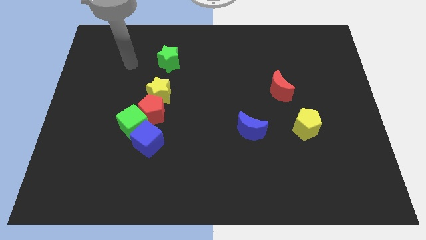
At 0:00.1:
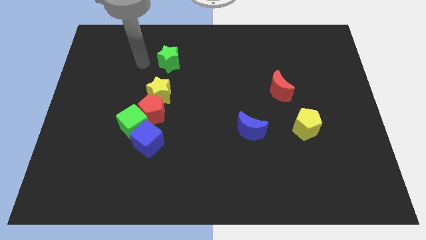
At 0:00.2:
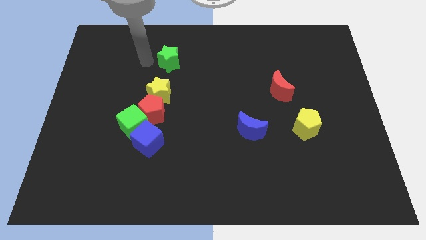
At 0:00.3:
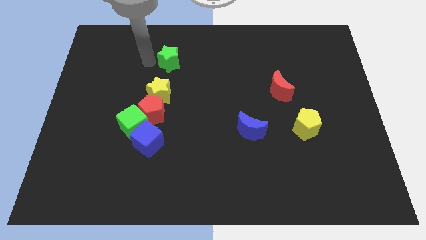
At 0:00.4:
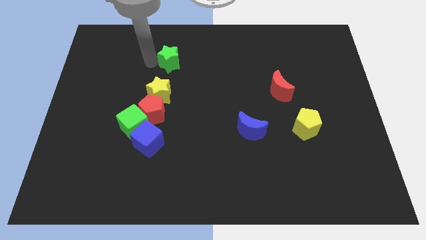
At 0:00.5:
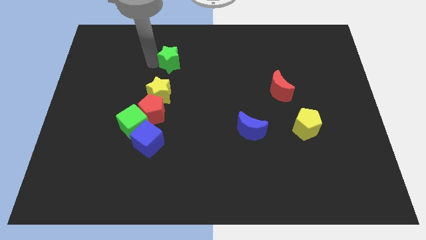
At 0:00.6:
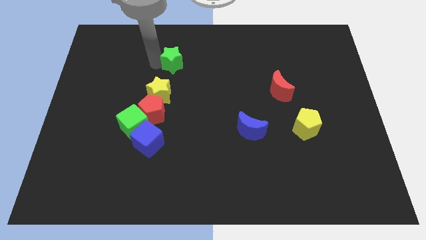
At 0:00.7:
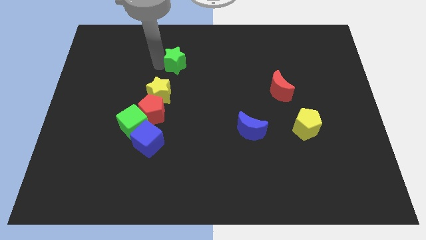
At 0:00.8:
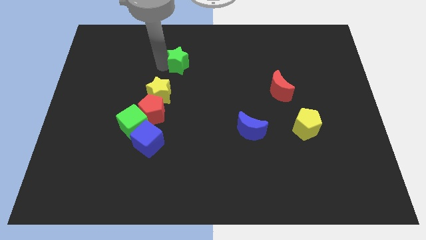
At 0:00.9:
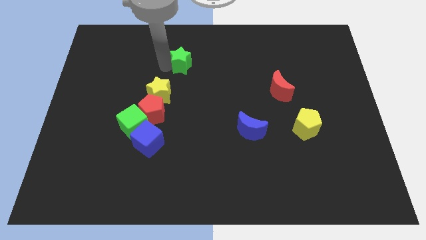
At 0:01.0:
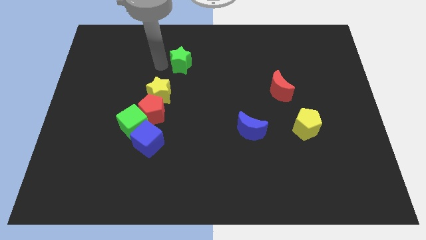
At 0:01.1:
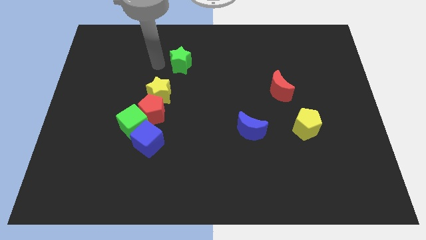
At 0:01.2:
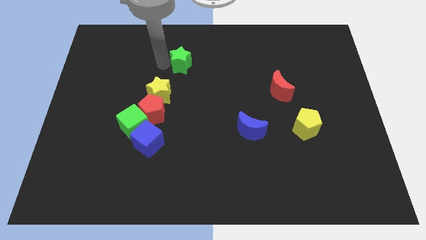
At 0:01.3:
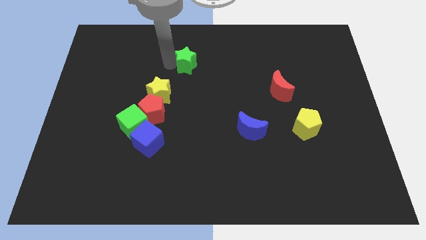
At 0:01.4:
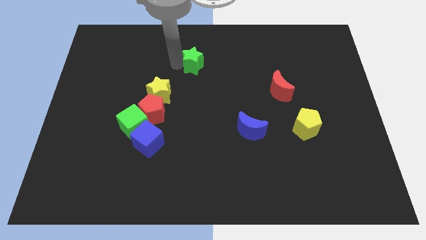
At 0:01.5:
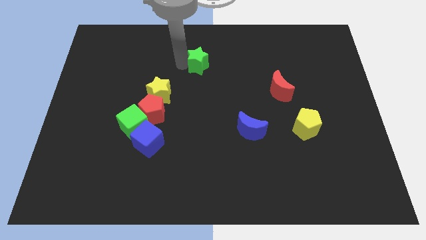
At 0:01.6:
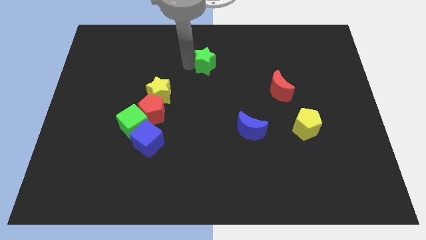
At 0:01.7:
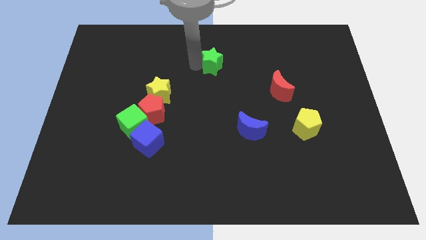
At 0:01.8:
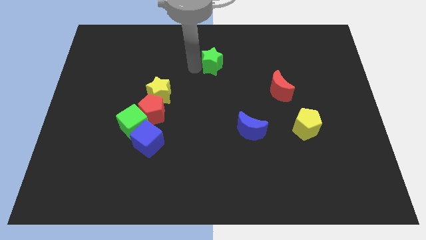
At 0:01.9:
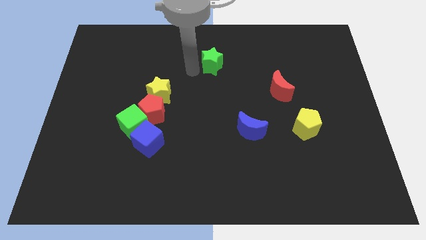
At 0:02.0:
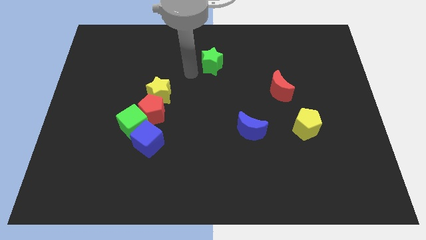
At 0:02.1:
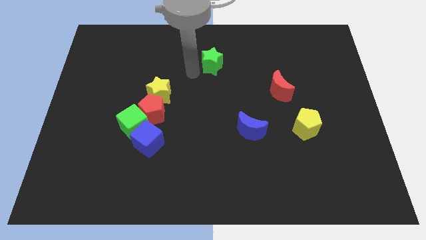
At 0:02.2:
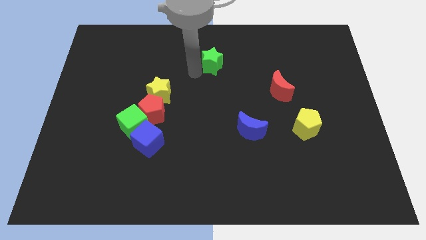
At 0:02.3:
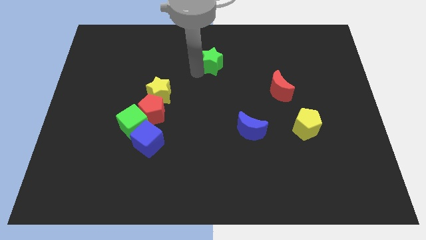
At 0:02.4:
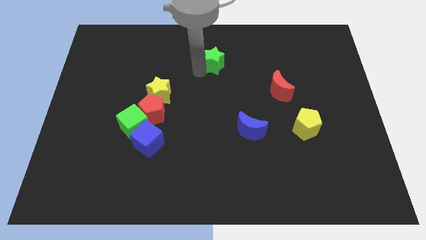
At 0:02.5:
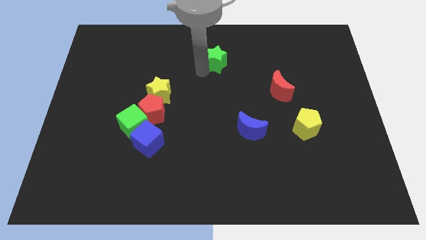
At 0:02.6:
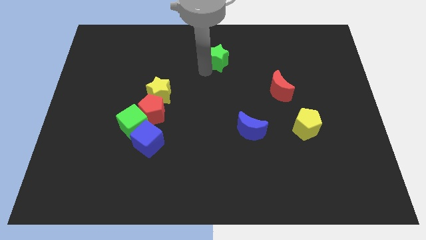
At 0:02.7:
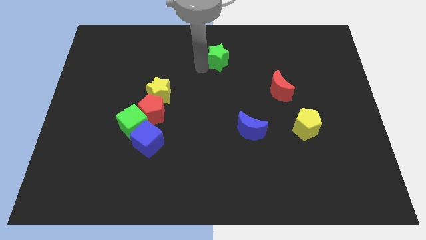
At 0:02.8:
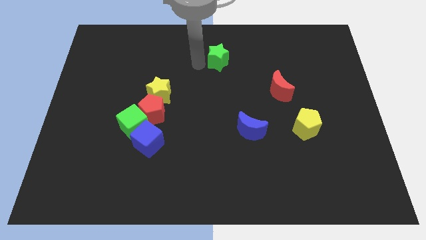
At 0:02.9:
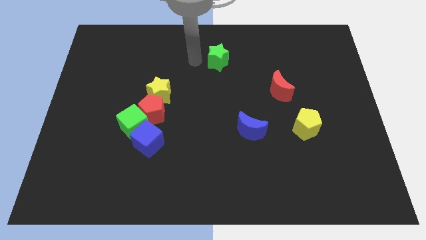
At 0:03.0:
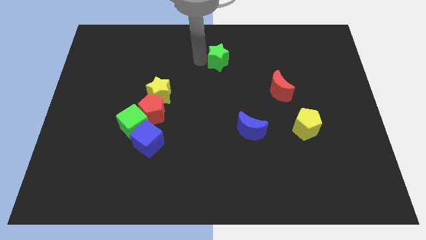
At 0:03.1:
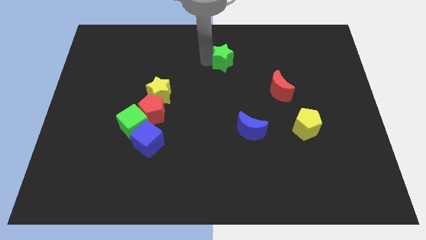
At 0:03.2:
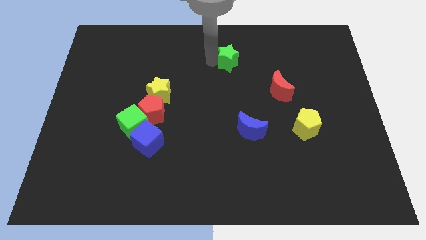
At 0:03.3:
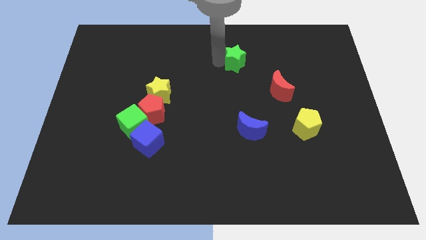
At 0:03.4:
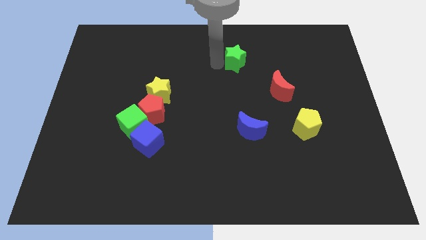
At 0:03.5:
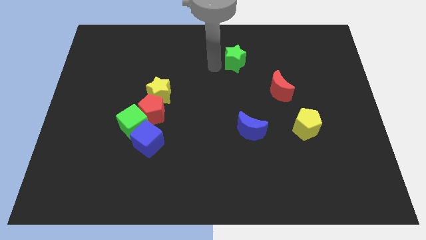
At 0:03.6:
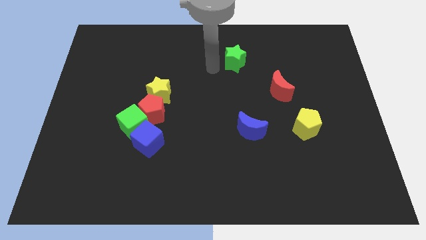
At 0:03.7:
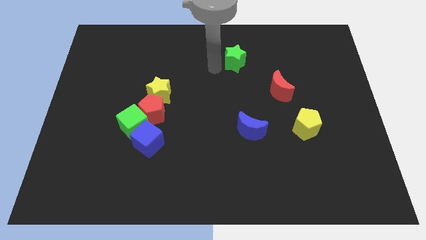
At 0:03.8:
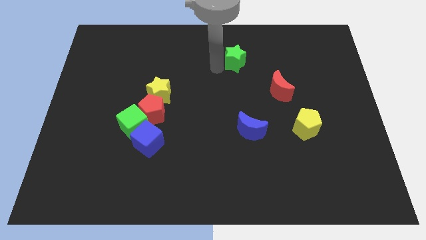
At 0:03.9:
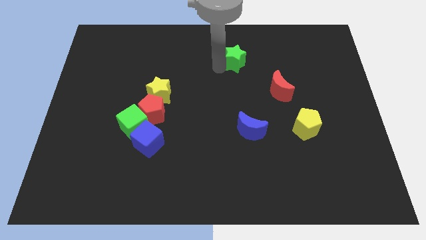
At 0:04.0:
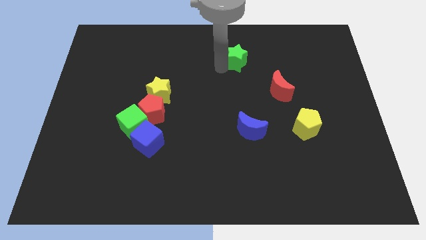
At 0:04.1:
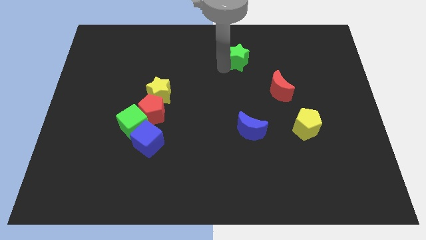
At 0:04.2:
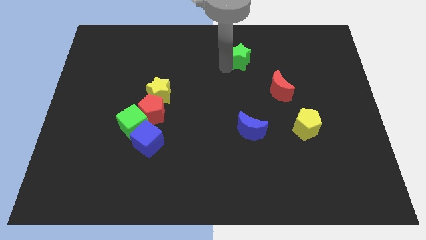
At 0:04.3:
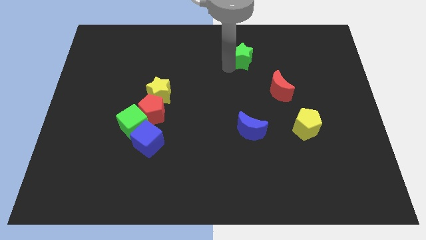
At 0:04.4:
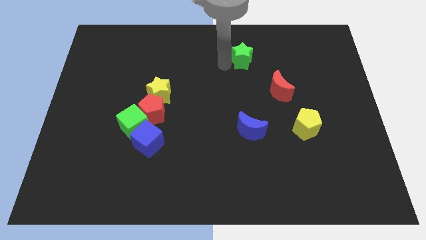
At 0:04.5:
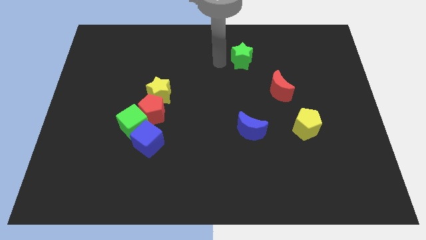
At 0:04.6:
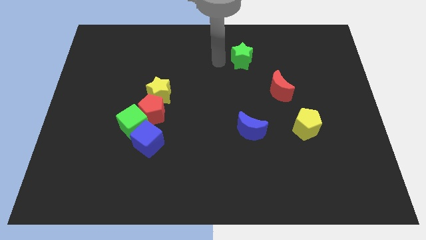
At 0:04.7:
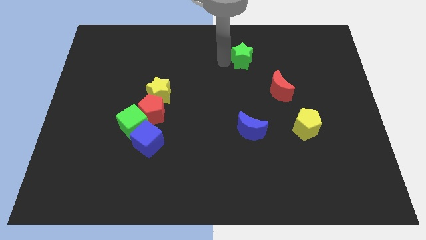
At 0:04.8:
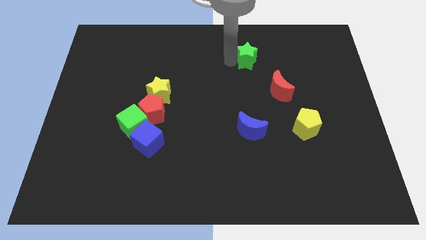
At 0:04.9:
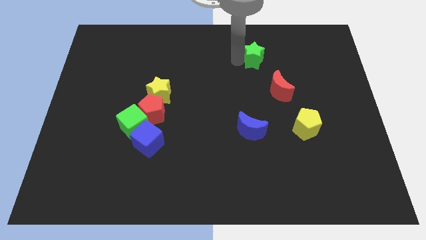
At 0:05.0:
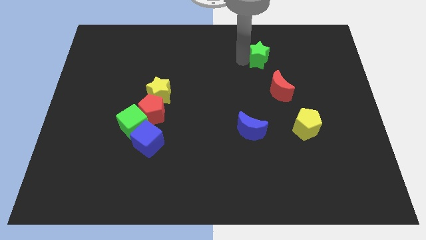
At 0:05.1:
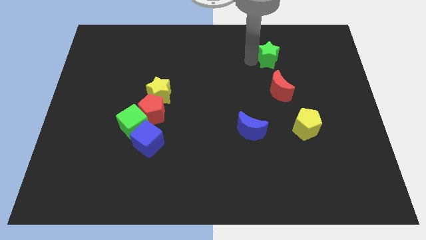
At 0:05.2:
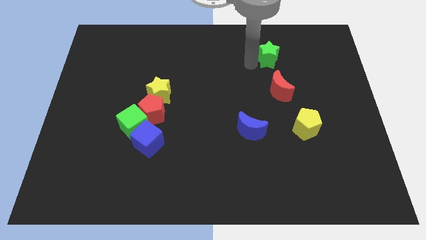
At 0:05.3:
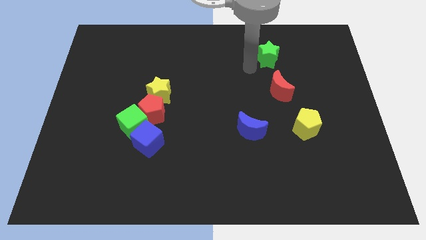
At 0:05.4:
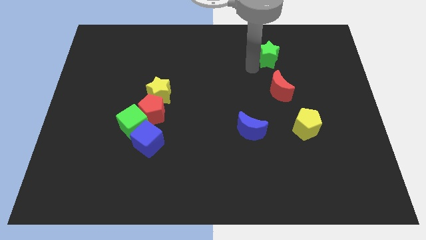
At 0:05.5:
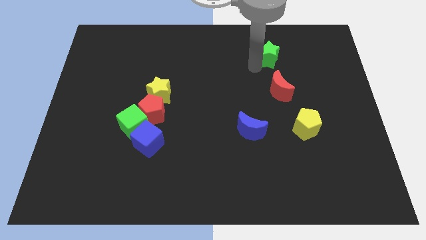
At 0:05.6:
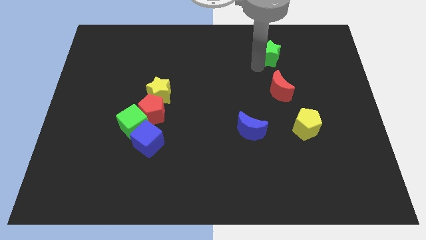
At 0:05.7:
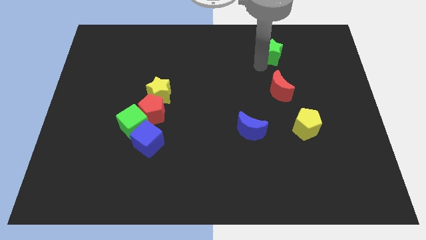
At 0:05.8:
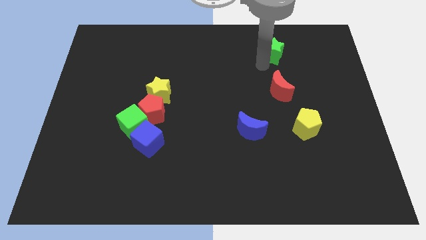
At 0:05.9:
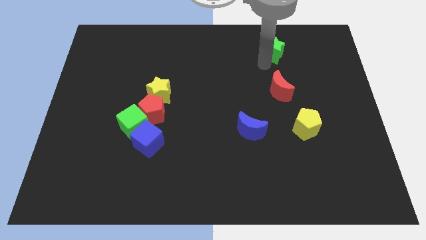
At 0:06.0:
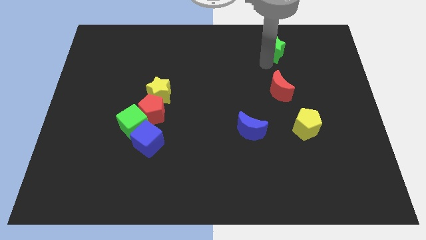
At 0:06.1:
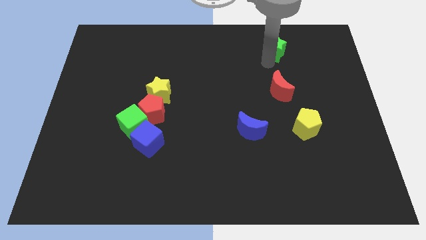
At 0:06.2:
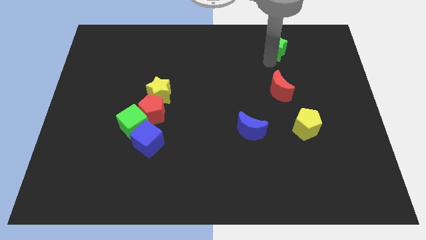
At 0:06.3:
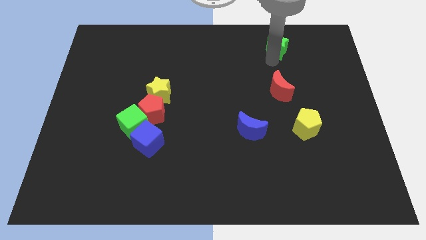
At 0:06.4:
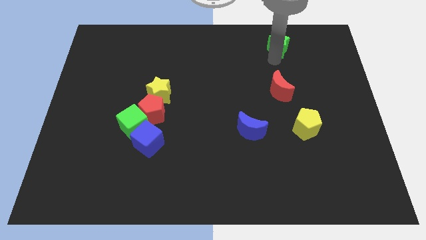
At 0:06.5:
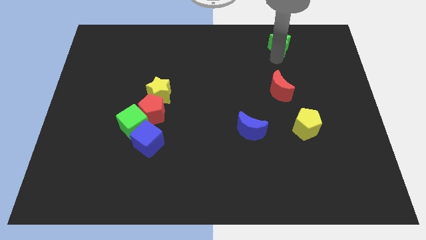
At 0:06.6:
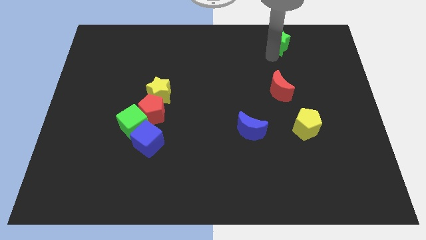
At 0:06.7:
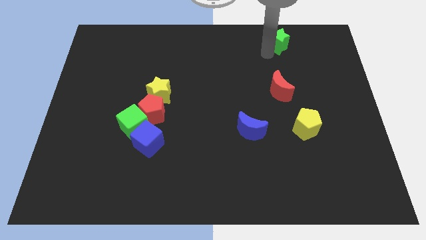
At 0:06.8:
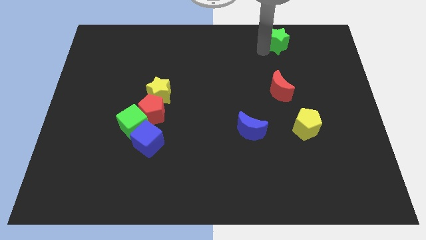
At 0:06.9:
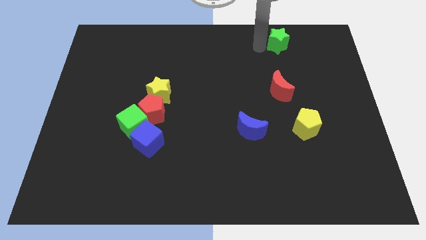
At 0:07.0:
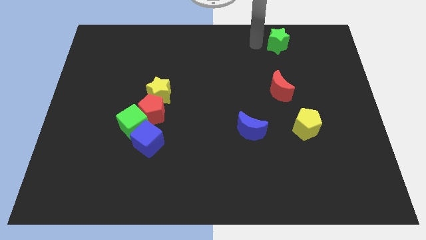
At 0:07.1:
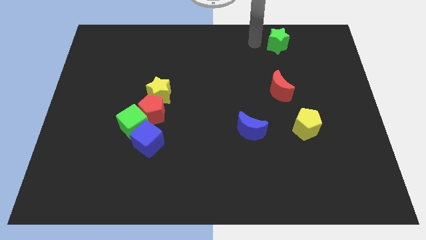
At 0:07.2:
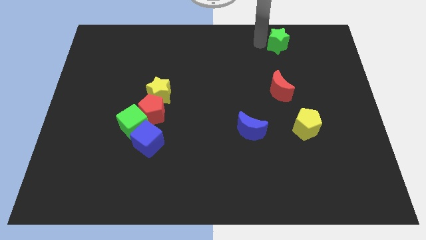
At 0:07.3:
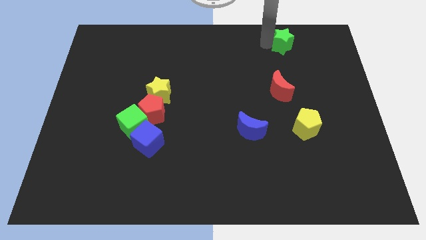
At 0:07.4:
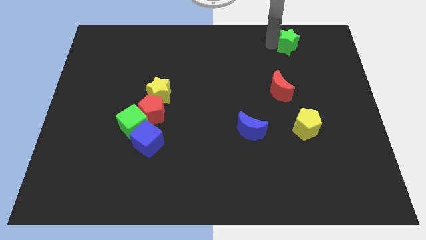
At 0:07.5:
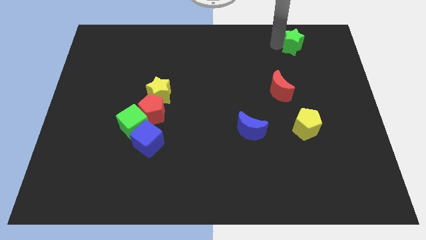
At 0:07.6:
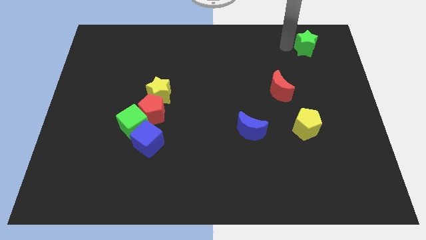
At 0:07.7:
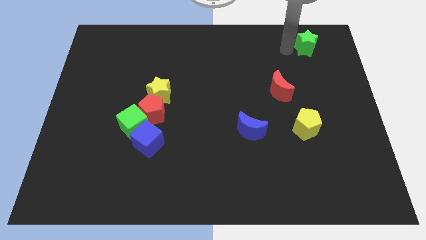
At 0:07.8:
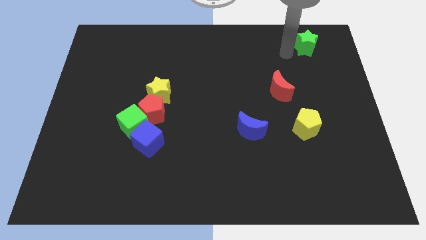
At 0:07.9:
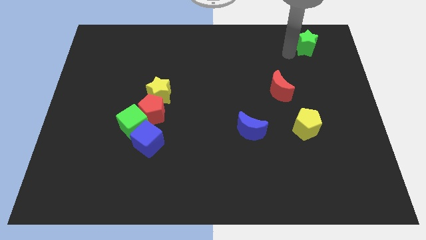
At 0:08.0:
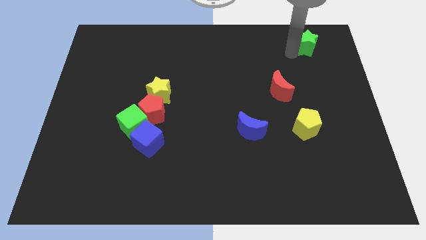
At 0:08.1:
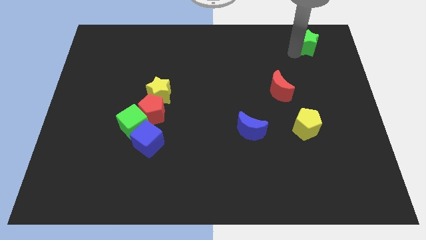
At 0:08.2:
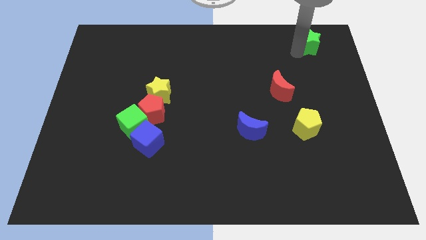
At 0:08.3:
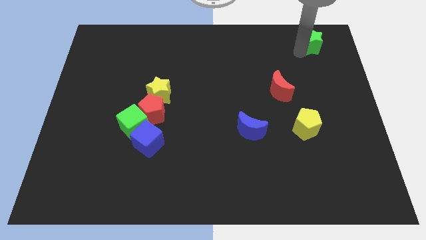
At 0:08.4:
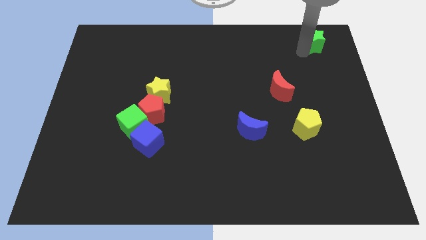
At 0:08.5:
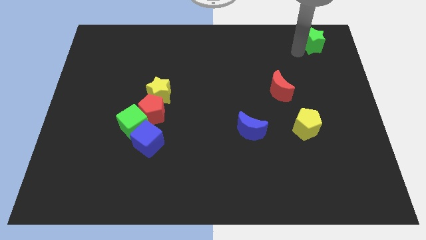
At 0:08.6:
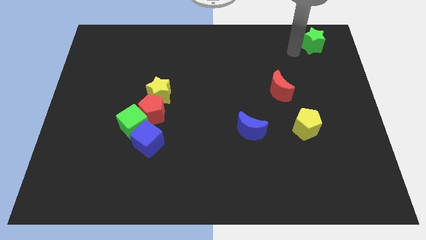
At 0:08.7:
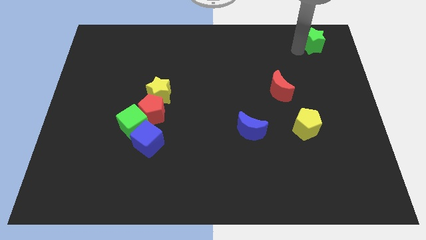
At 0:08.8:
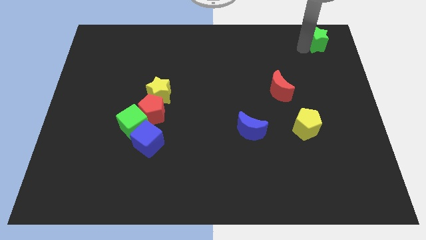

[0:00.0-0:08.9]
slide the green star to the top right
